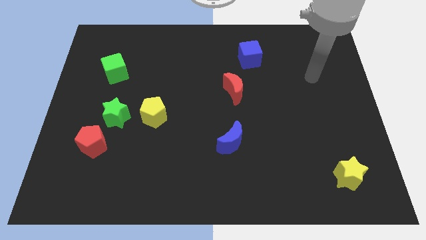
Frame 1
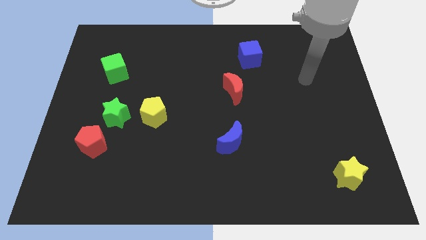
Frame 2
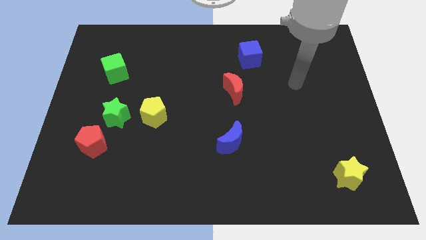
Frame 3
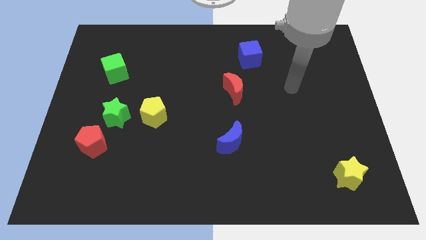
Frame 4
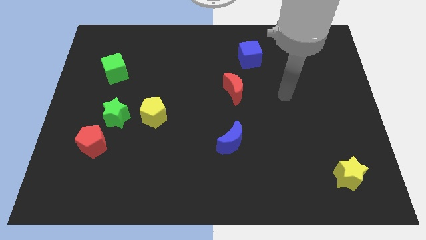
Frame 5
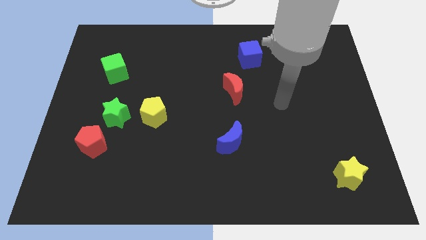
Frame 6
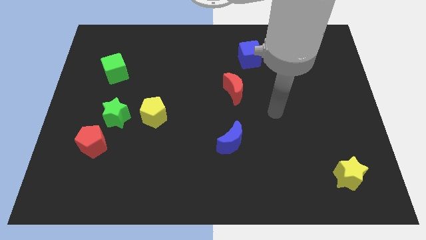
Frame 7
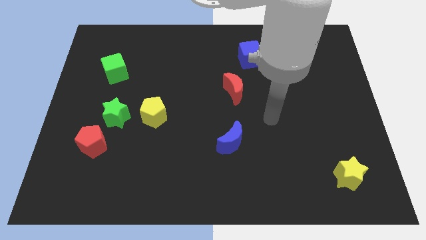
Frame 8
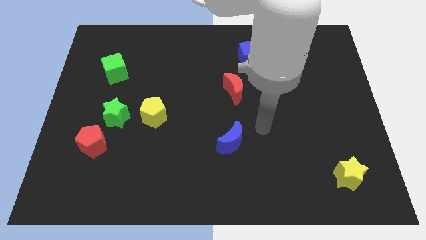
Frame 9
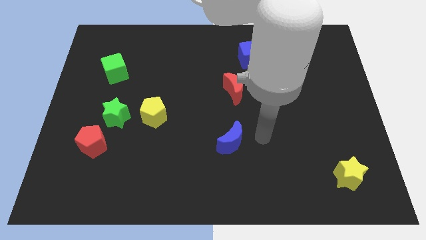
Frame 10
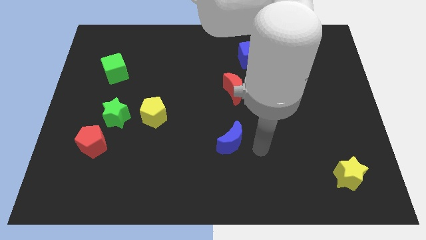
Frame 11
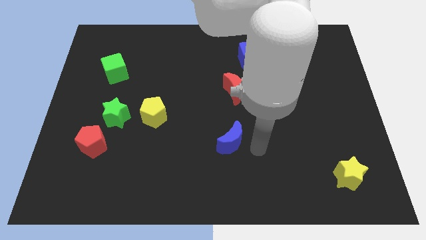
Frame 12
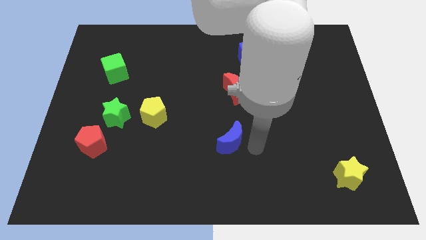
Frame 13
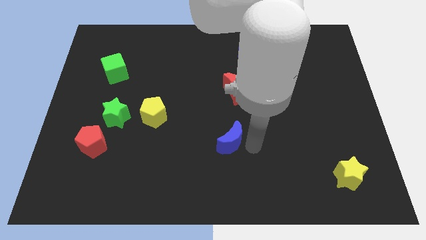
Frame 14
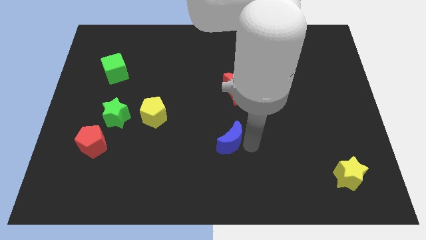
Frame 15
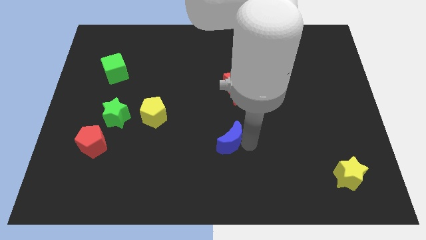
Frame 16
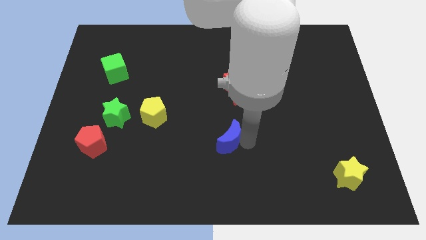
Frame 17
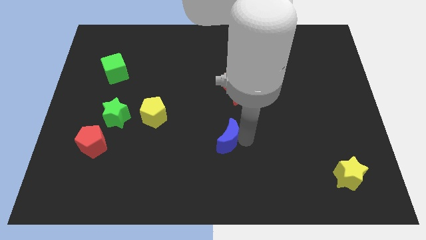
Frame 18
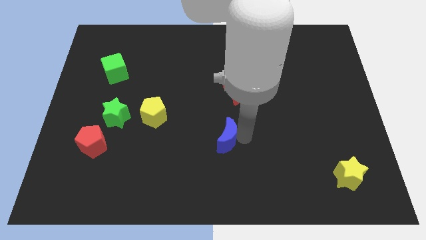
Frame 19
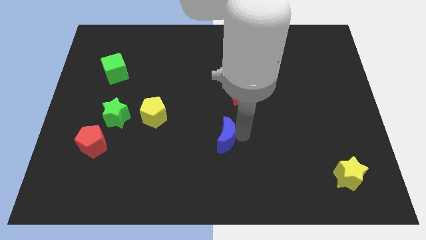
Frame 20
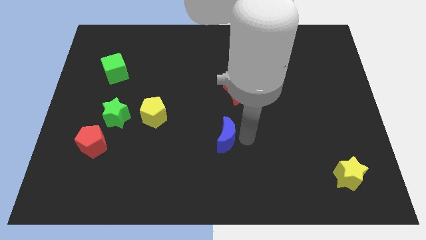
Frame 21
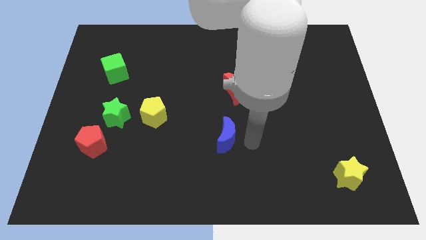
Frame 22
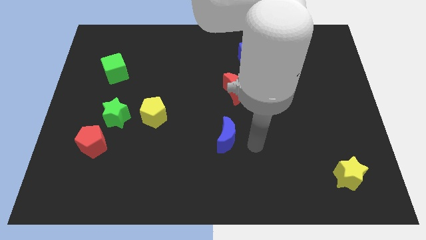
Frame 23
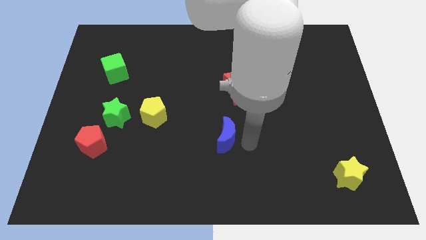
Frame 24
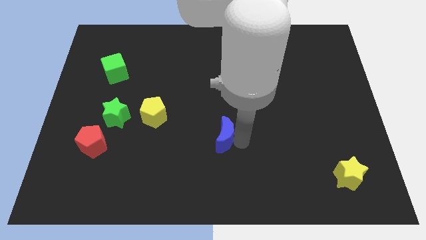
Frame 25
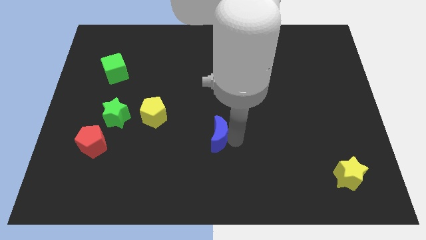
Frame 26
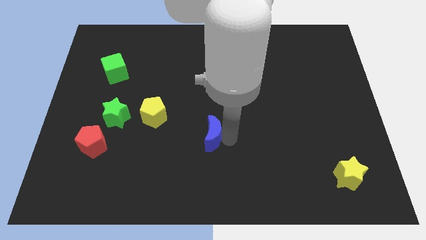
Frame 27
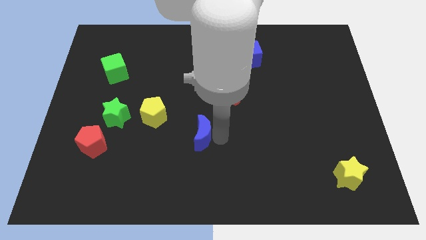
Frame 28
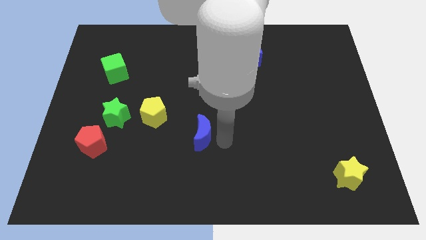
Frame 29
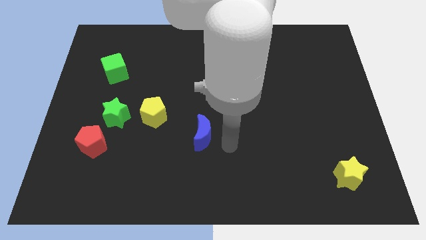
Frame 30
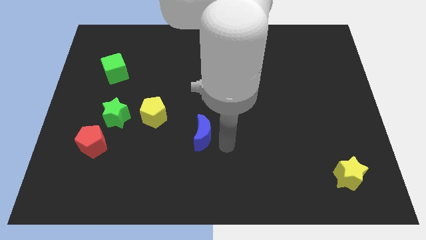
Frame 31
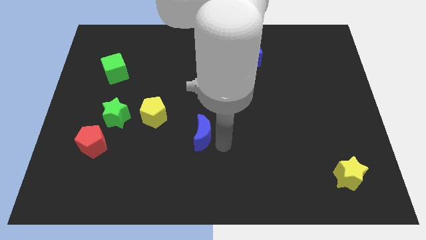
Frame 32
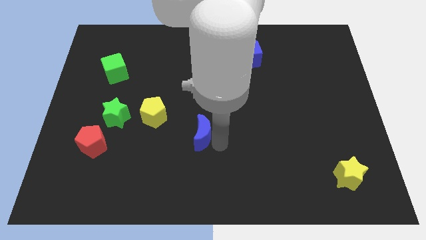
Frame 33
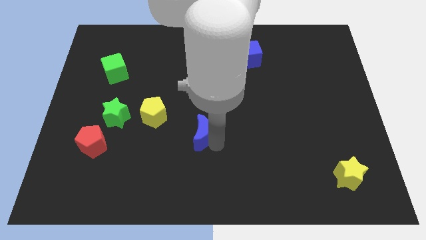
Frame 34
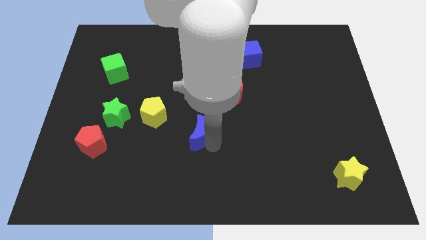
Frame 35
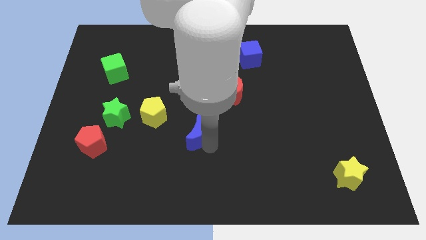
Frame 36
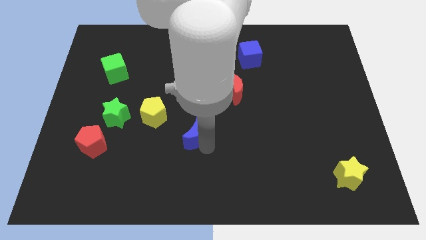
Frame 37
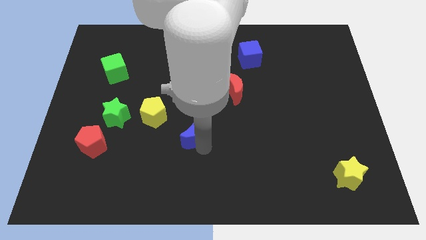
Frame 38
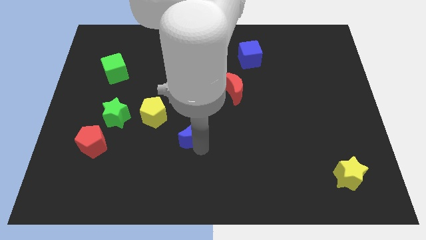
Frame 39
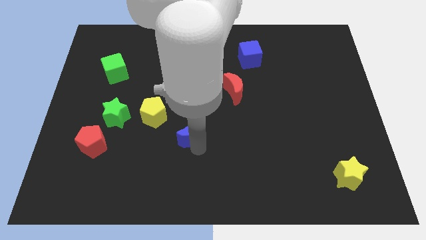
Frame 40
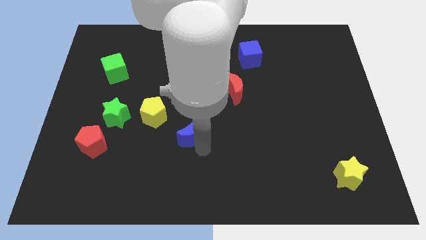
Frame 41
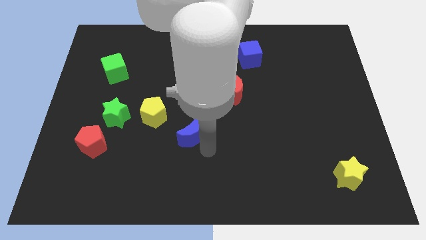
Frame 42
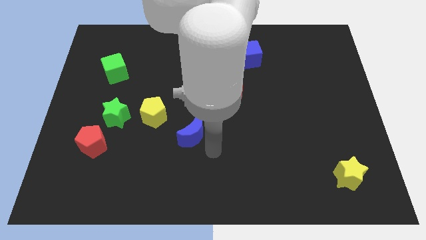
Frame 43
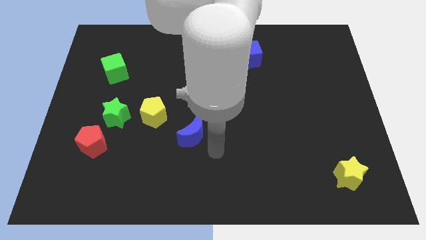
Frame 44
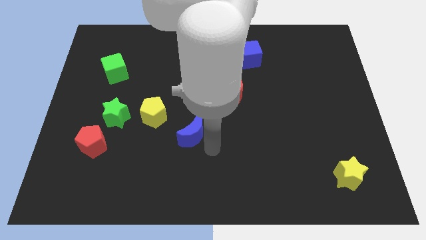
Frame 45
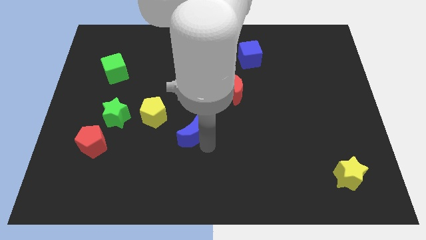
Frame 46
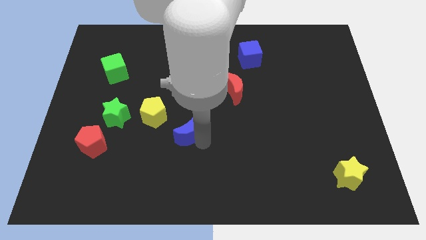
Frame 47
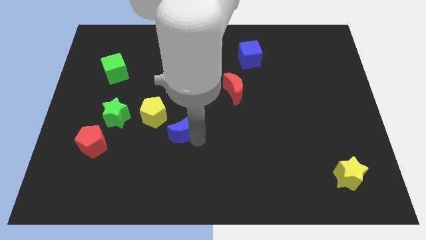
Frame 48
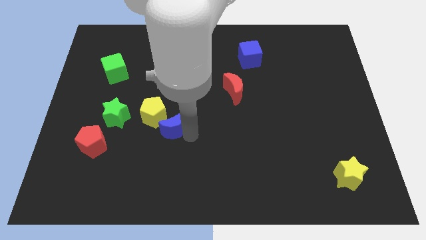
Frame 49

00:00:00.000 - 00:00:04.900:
push the blue moon towards the yellow pentagon

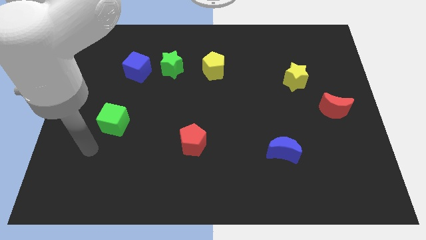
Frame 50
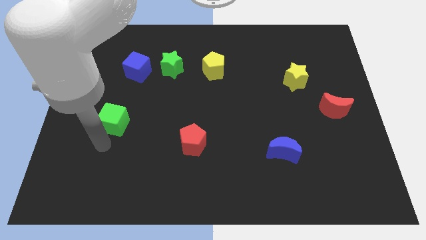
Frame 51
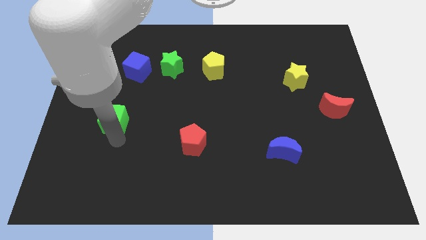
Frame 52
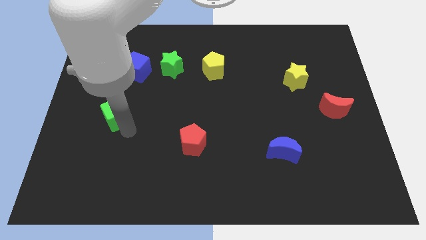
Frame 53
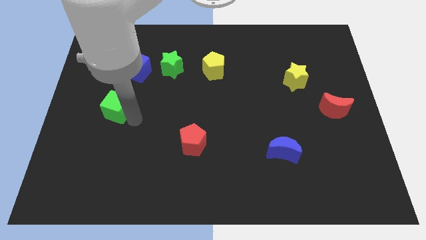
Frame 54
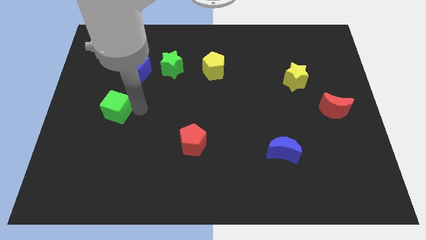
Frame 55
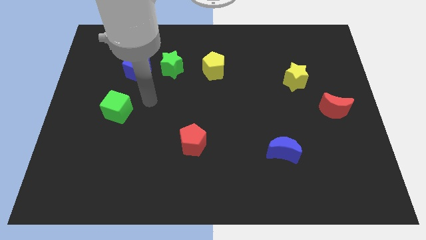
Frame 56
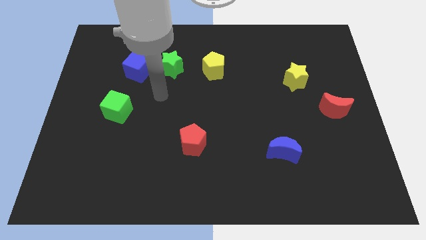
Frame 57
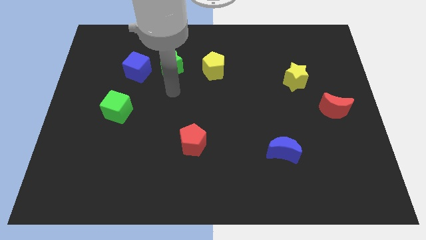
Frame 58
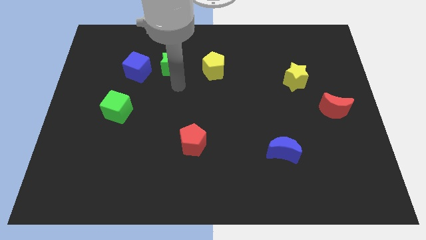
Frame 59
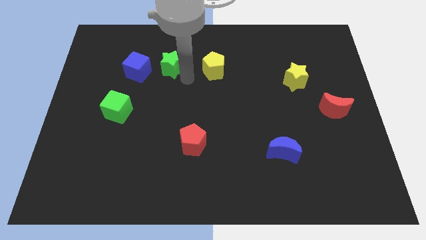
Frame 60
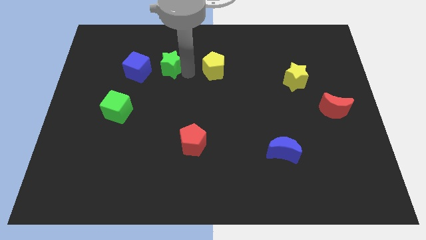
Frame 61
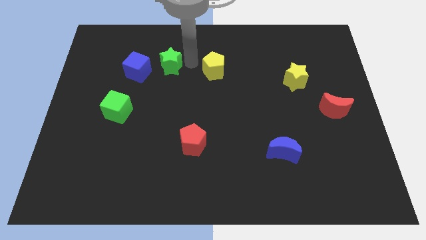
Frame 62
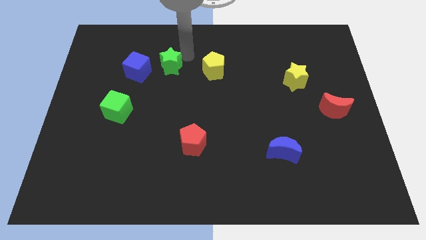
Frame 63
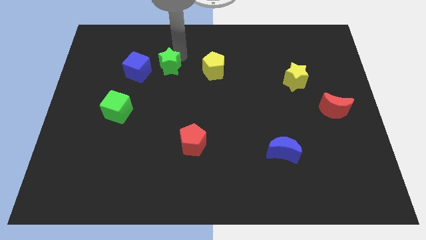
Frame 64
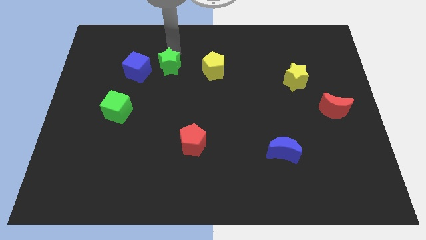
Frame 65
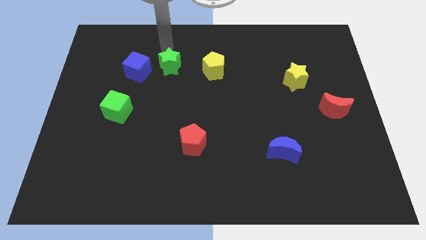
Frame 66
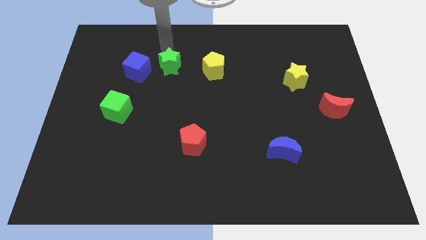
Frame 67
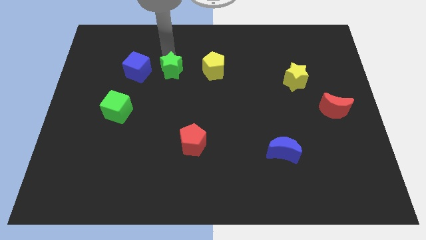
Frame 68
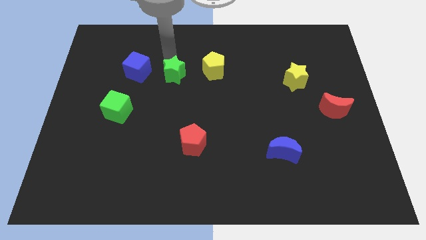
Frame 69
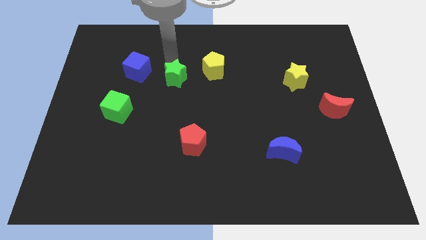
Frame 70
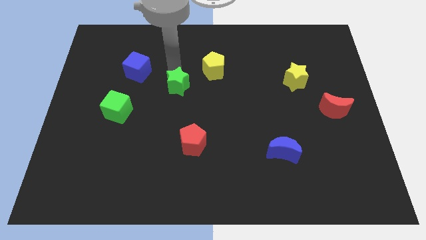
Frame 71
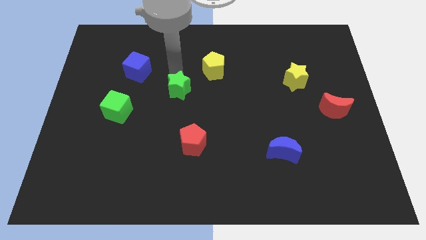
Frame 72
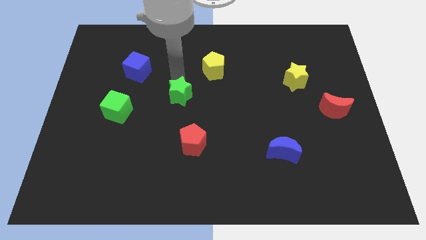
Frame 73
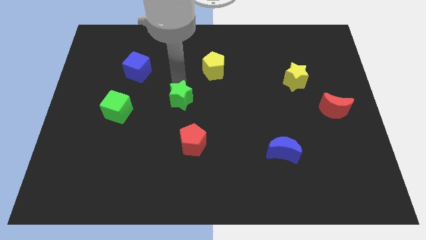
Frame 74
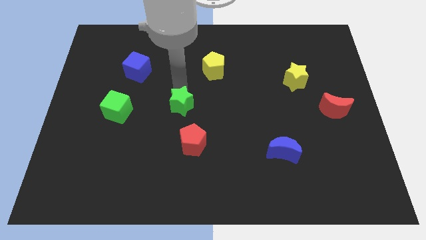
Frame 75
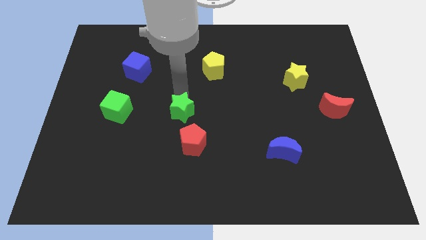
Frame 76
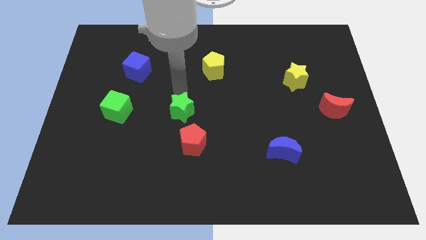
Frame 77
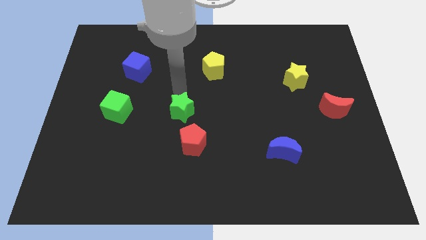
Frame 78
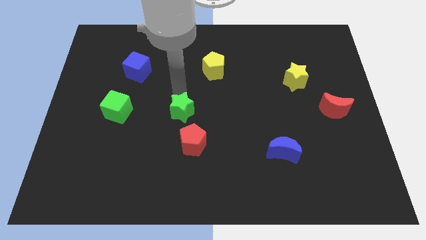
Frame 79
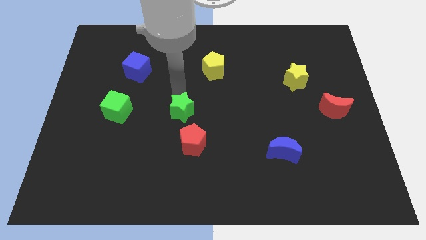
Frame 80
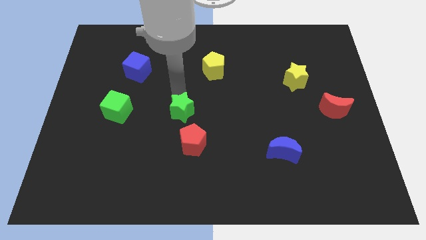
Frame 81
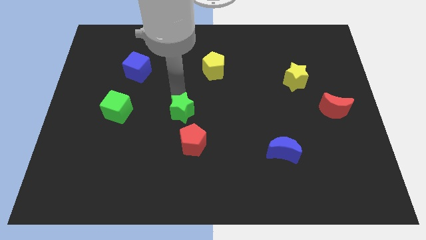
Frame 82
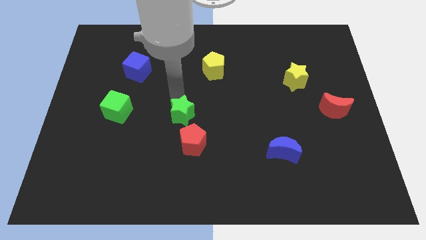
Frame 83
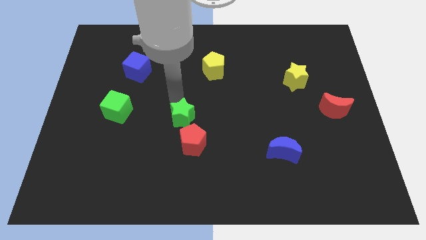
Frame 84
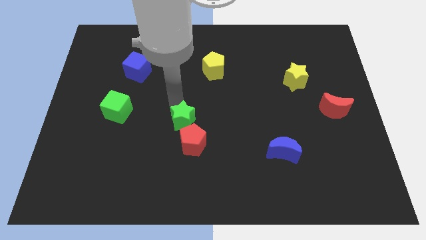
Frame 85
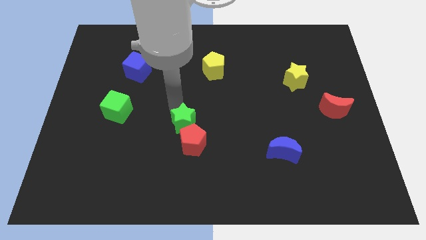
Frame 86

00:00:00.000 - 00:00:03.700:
push the green star to the red pentagon
